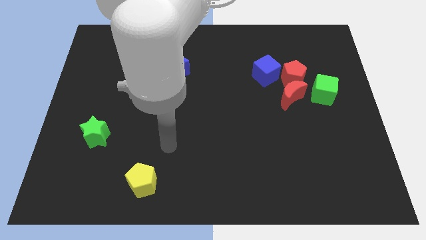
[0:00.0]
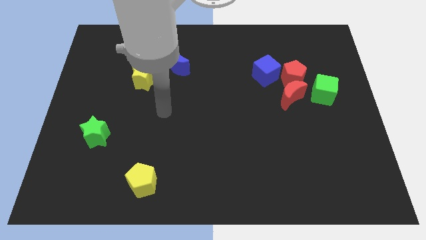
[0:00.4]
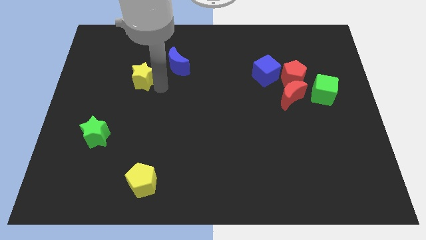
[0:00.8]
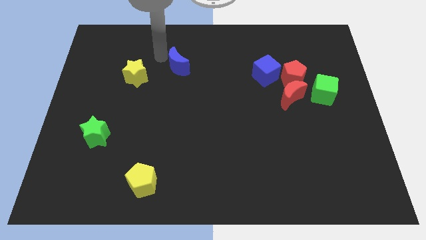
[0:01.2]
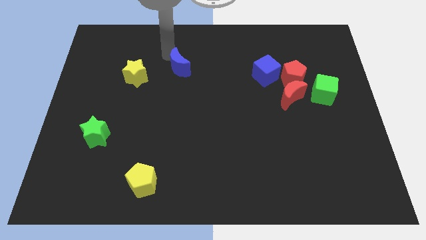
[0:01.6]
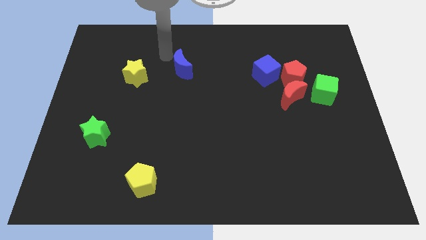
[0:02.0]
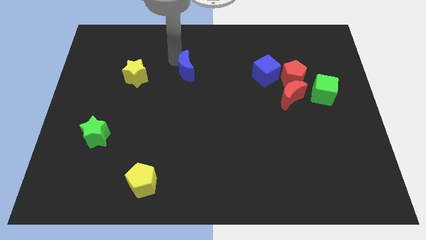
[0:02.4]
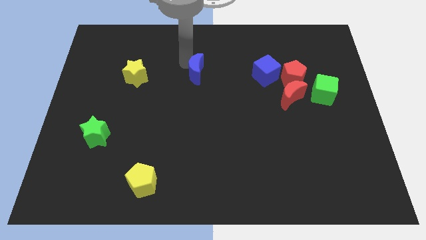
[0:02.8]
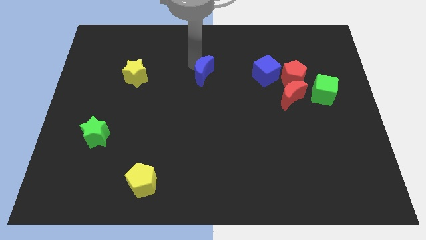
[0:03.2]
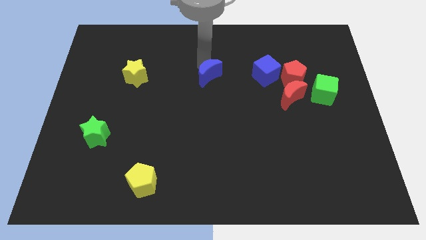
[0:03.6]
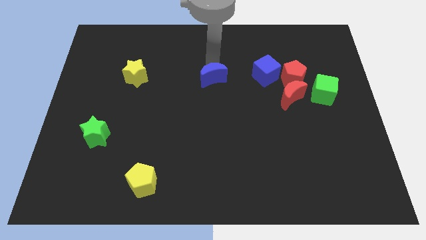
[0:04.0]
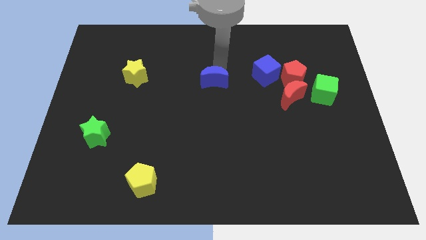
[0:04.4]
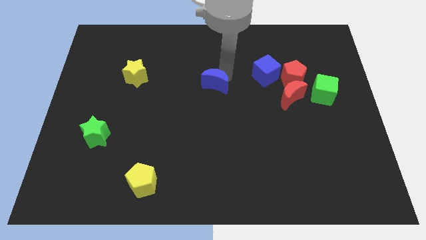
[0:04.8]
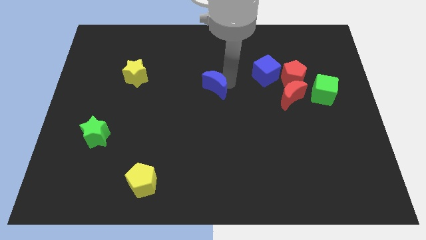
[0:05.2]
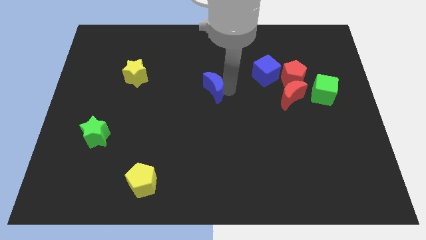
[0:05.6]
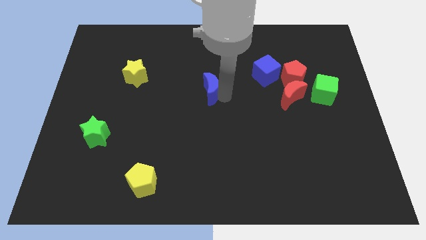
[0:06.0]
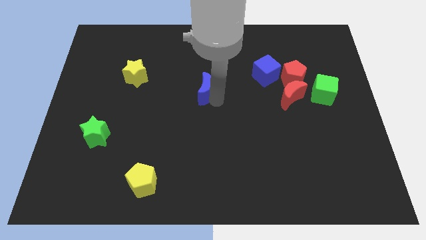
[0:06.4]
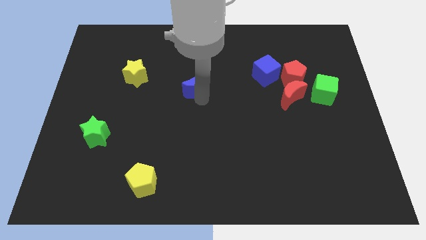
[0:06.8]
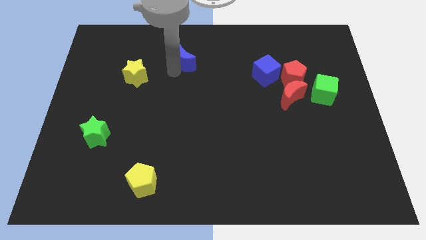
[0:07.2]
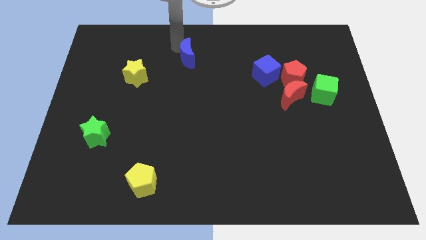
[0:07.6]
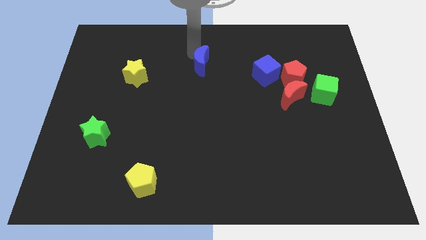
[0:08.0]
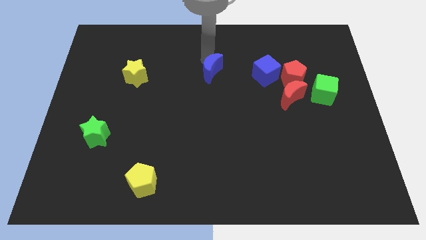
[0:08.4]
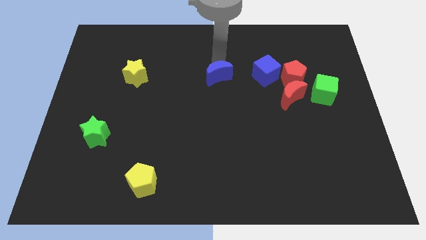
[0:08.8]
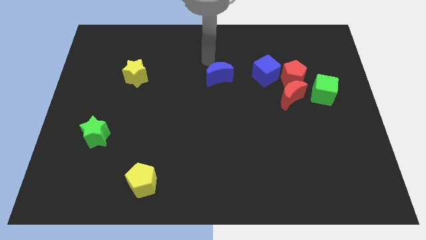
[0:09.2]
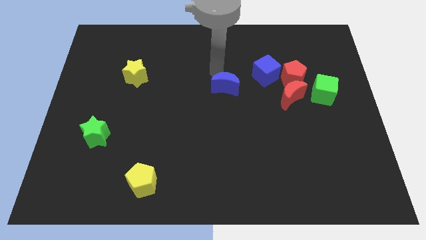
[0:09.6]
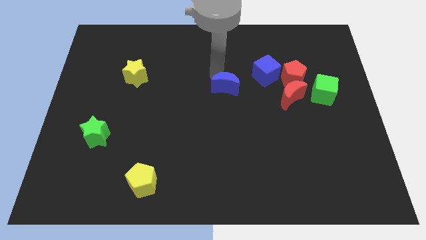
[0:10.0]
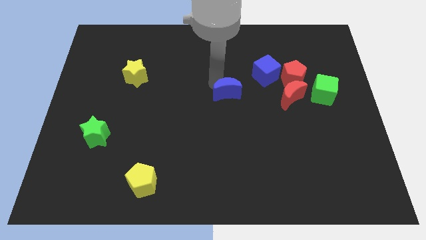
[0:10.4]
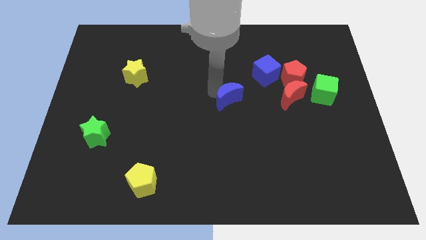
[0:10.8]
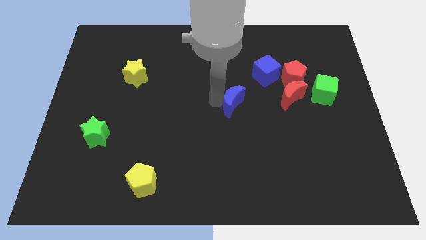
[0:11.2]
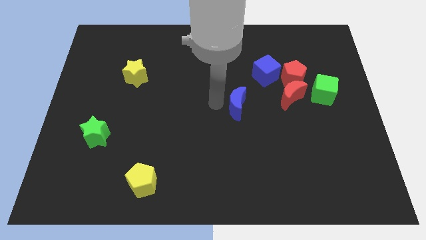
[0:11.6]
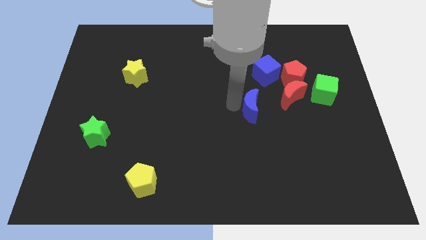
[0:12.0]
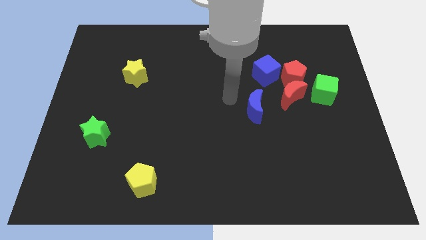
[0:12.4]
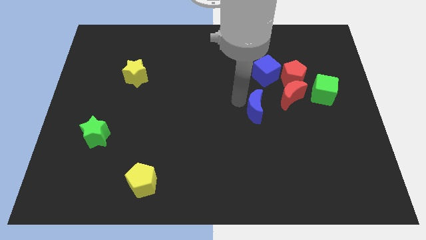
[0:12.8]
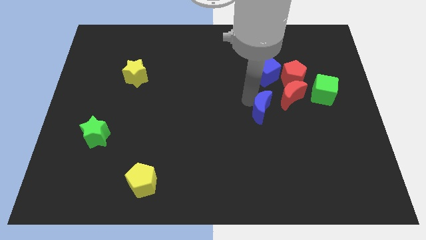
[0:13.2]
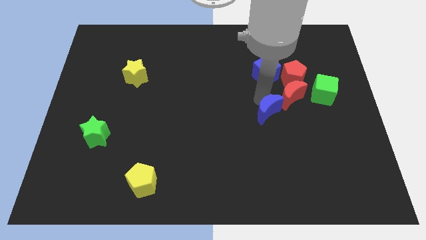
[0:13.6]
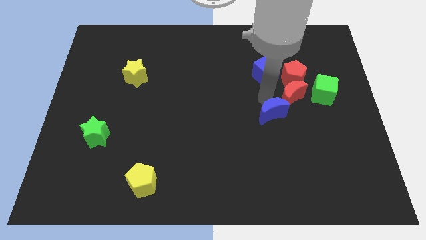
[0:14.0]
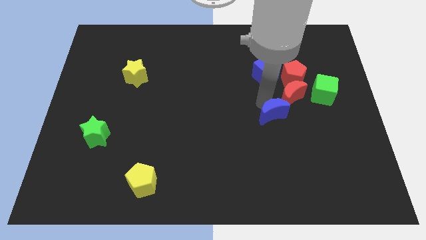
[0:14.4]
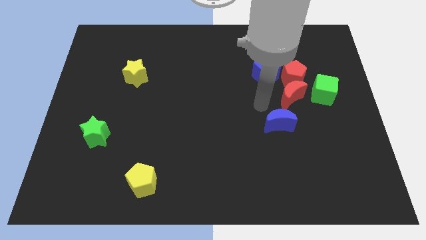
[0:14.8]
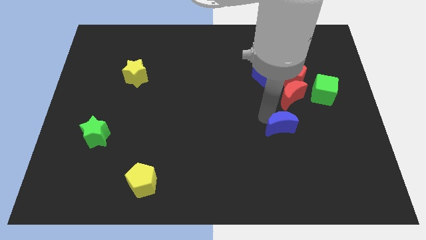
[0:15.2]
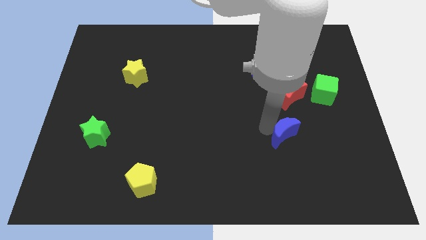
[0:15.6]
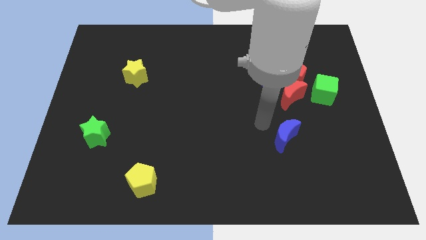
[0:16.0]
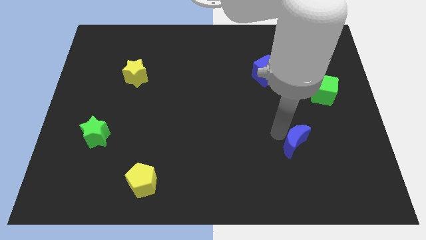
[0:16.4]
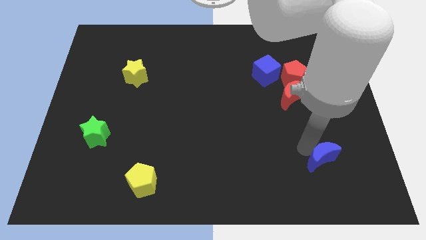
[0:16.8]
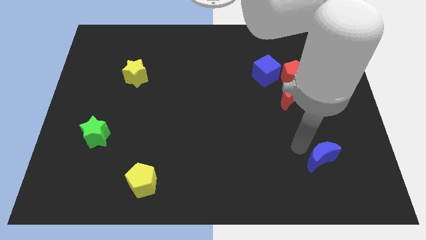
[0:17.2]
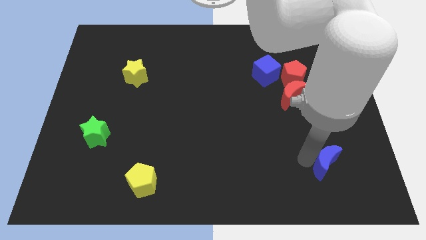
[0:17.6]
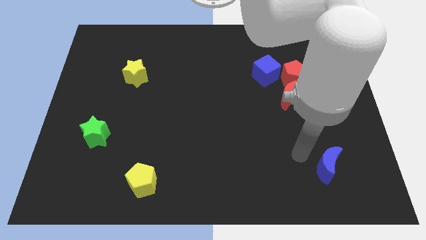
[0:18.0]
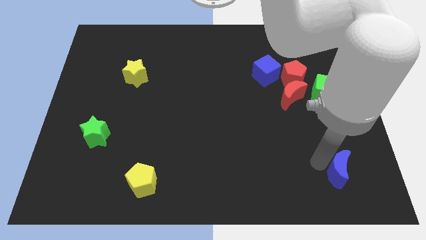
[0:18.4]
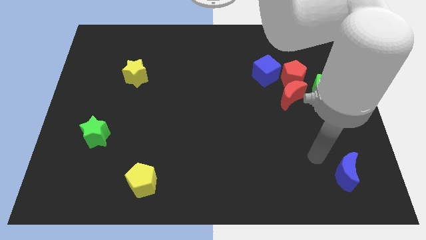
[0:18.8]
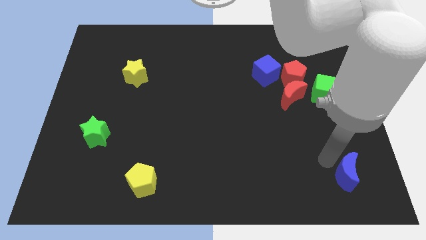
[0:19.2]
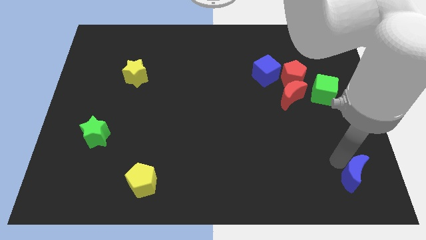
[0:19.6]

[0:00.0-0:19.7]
slide the blue moon to the bottom right

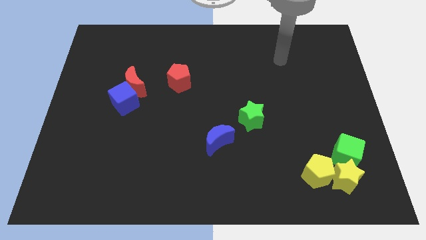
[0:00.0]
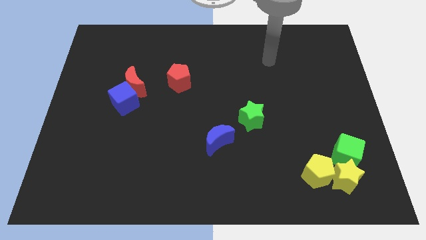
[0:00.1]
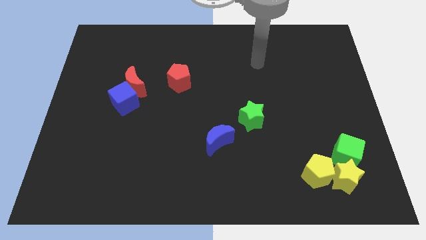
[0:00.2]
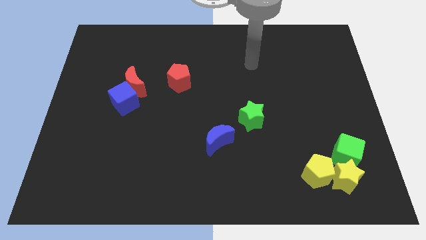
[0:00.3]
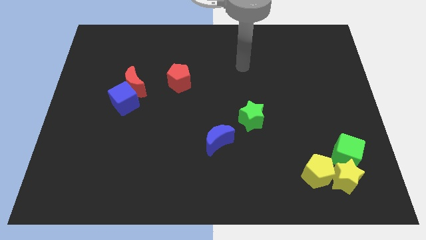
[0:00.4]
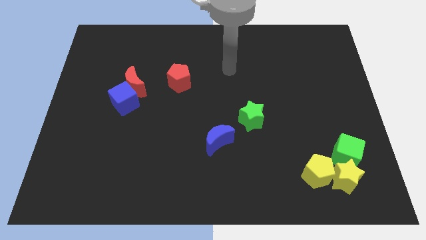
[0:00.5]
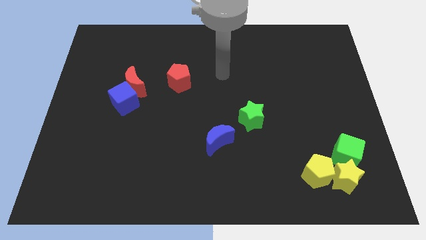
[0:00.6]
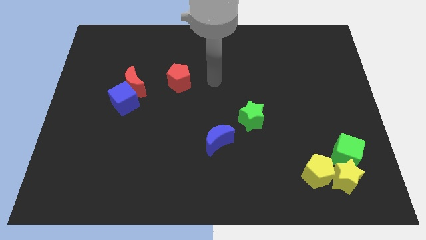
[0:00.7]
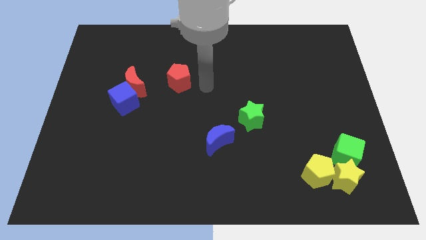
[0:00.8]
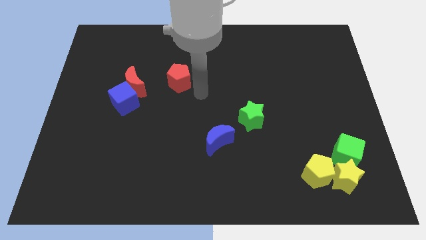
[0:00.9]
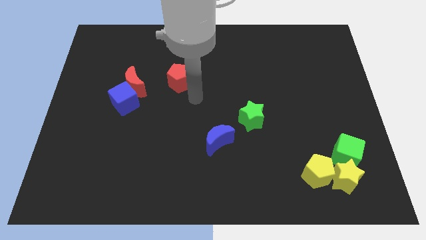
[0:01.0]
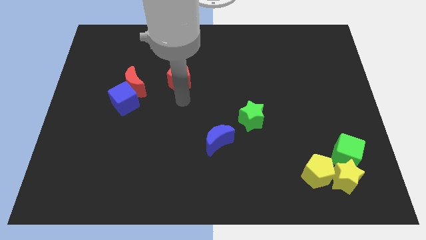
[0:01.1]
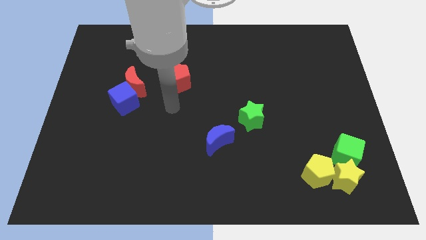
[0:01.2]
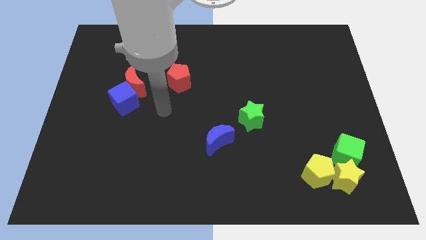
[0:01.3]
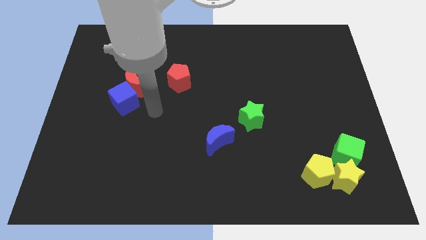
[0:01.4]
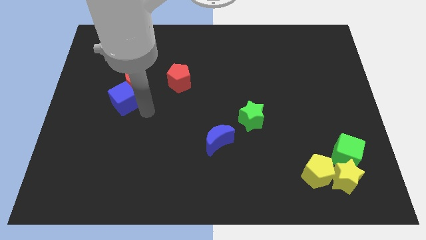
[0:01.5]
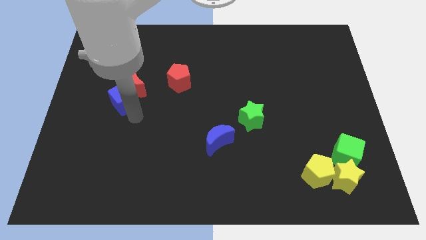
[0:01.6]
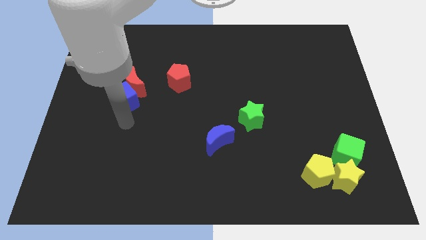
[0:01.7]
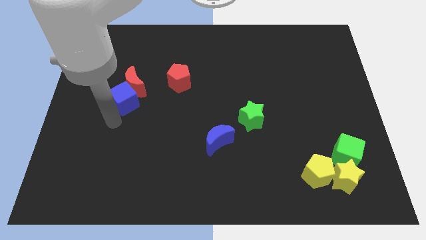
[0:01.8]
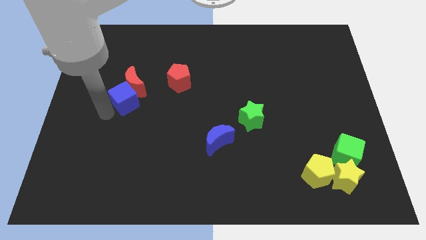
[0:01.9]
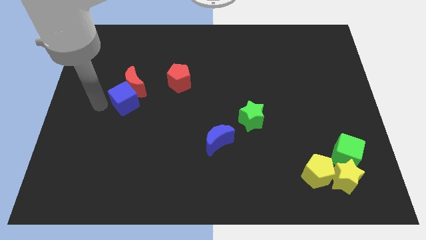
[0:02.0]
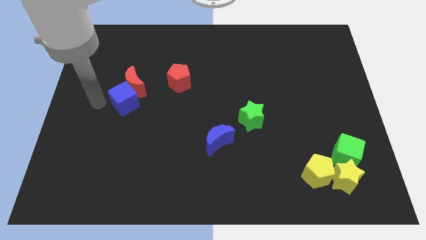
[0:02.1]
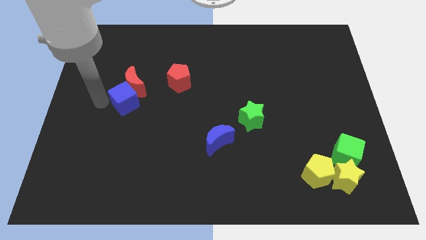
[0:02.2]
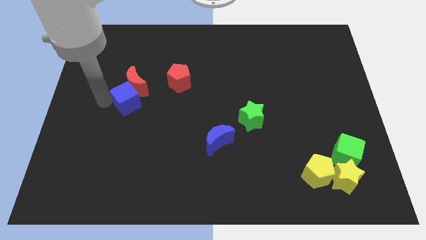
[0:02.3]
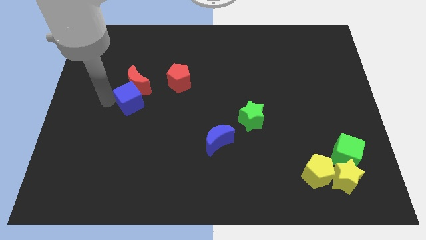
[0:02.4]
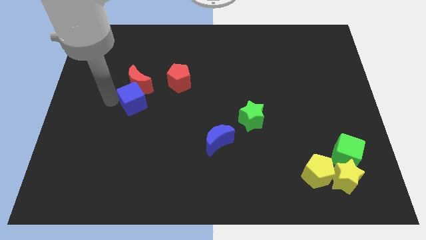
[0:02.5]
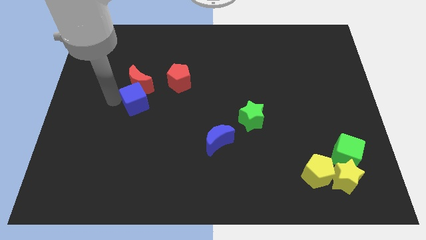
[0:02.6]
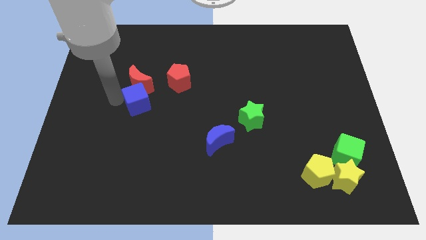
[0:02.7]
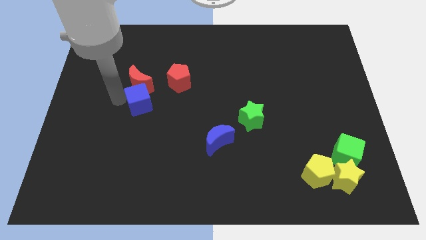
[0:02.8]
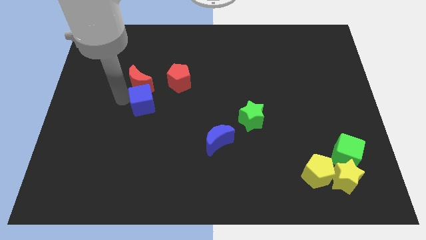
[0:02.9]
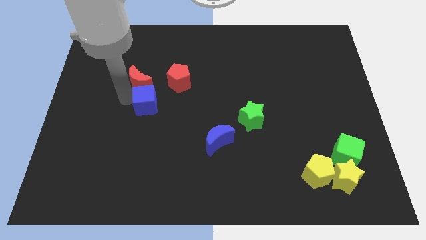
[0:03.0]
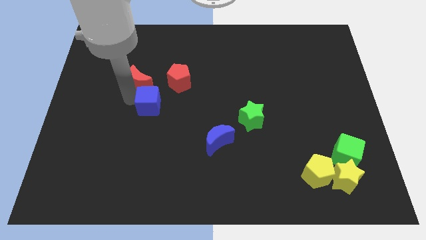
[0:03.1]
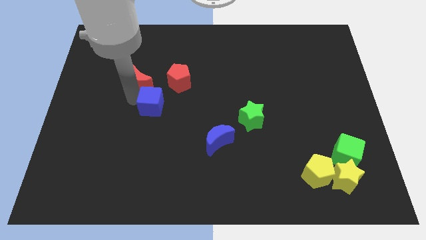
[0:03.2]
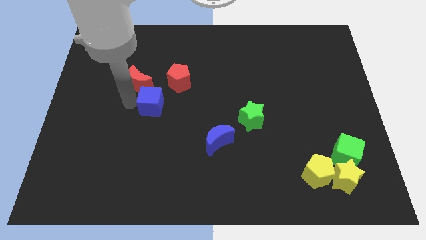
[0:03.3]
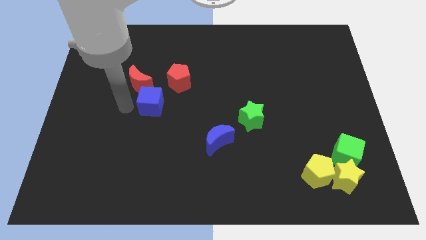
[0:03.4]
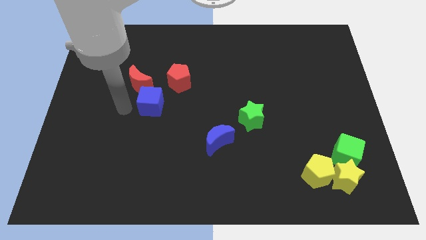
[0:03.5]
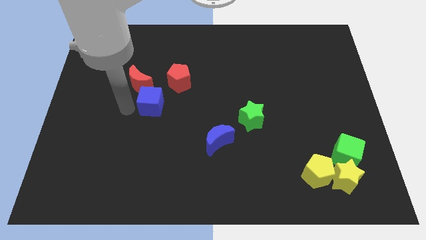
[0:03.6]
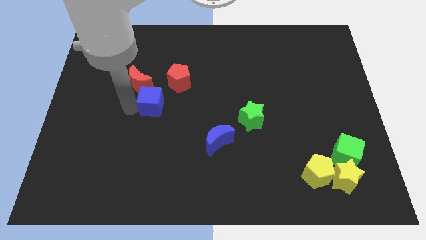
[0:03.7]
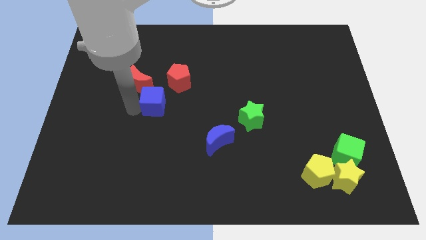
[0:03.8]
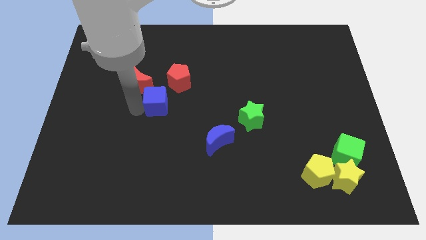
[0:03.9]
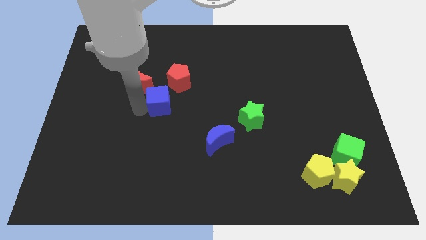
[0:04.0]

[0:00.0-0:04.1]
put the blue cube to the center
